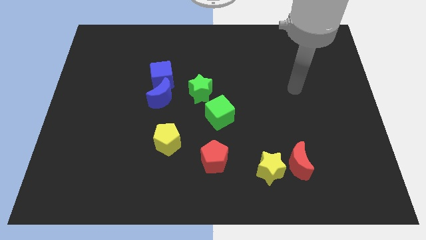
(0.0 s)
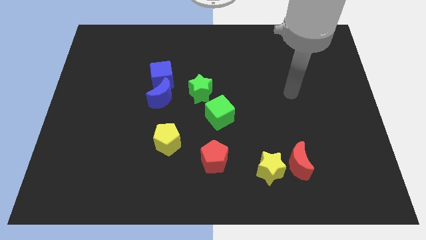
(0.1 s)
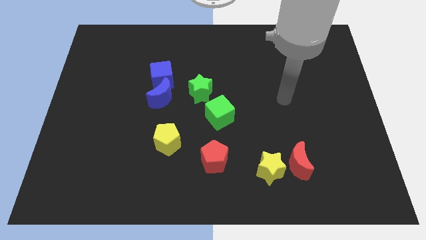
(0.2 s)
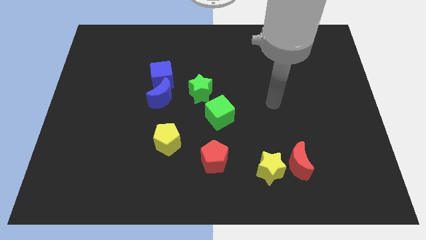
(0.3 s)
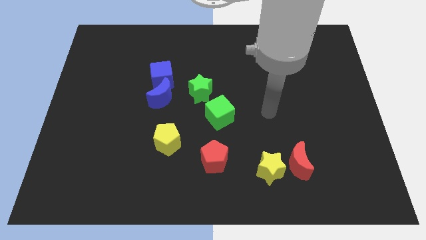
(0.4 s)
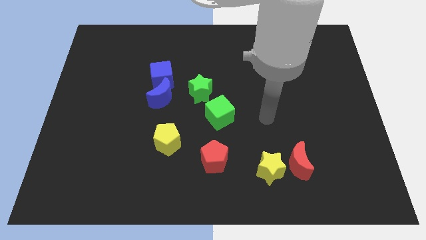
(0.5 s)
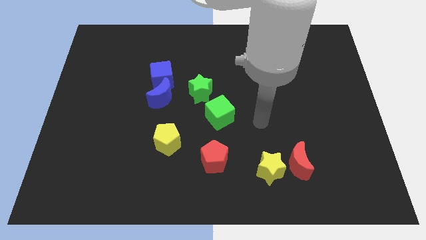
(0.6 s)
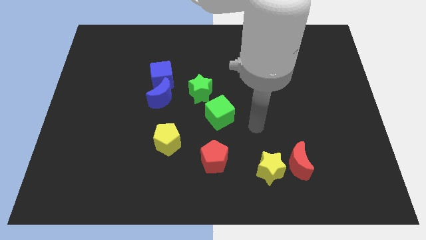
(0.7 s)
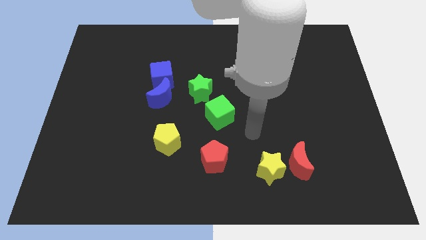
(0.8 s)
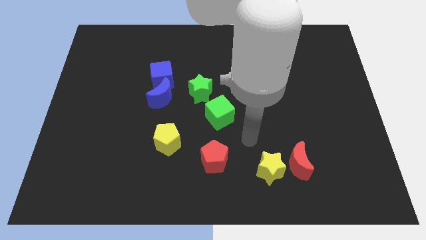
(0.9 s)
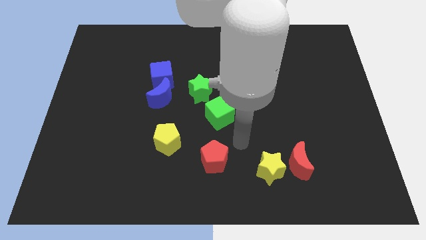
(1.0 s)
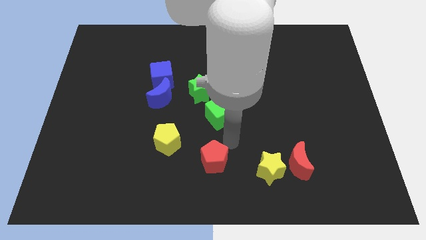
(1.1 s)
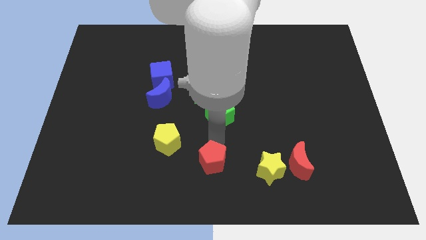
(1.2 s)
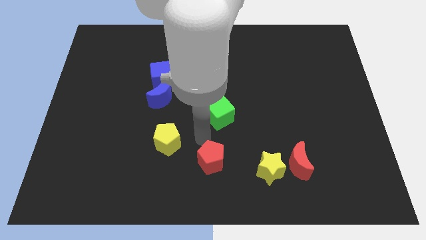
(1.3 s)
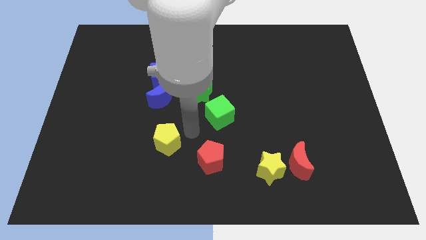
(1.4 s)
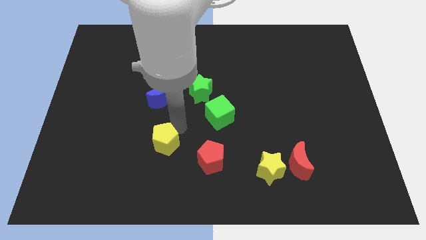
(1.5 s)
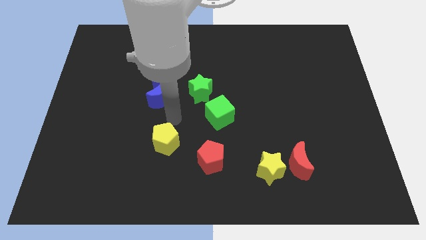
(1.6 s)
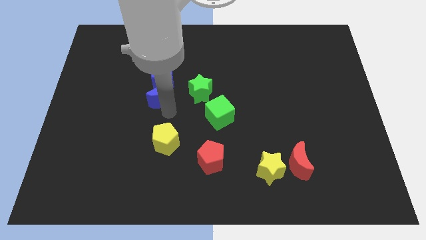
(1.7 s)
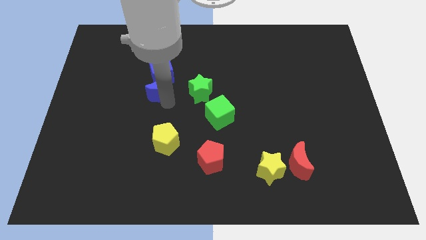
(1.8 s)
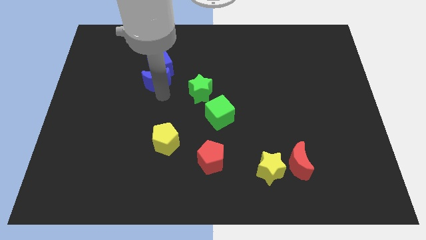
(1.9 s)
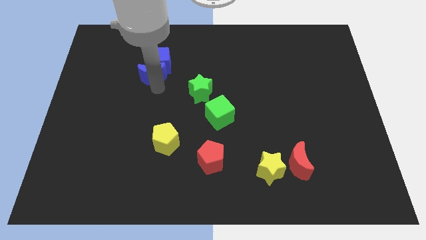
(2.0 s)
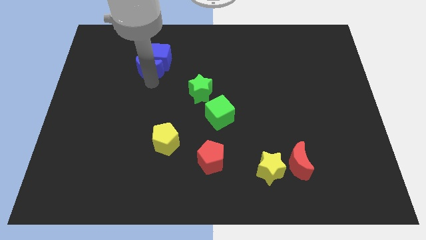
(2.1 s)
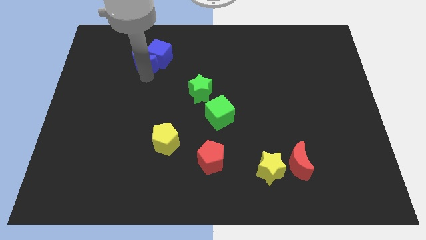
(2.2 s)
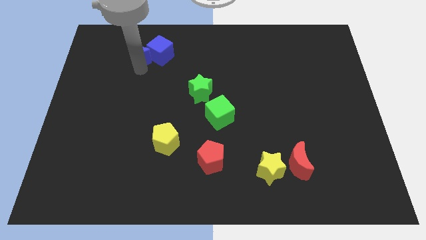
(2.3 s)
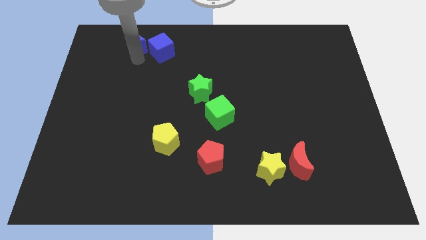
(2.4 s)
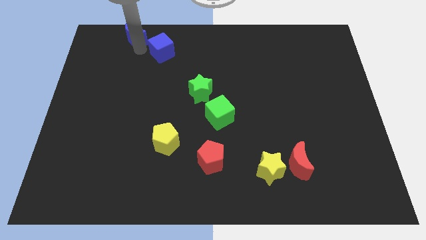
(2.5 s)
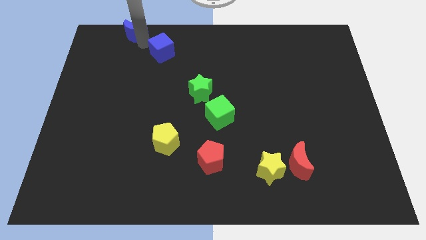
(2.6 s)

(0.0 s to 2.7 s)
move the blue cube away from the blue moon

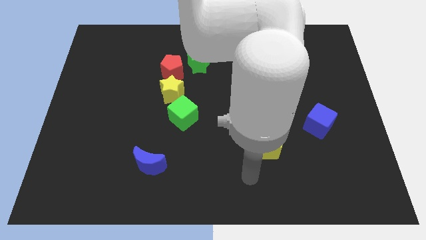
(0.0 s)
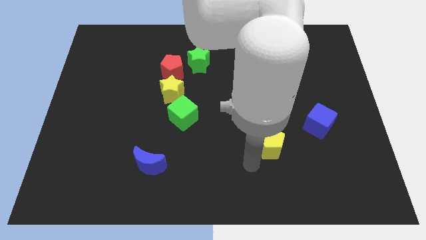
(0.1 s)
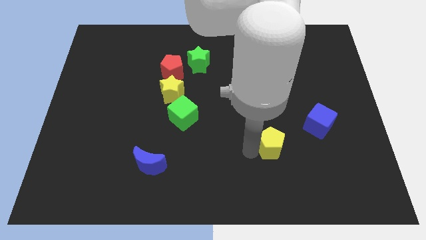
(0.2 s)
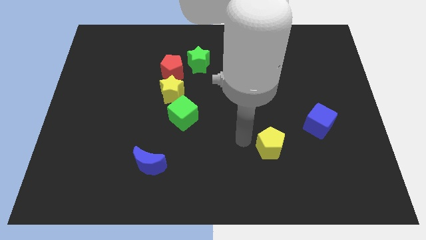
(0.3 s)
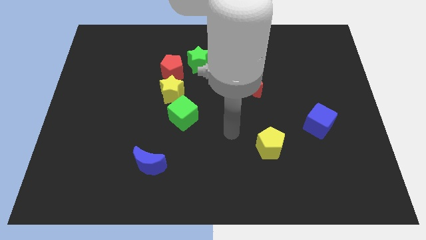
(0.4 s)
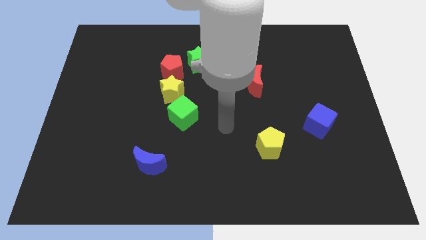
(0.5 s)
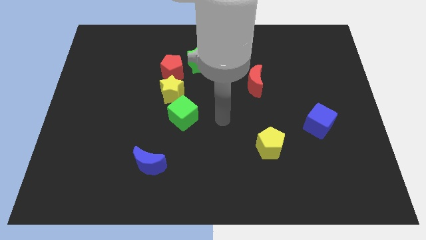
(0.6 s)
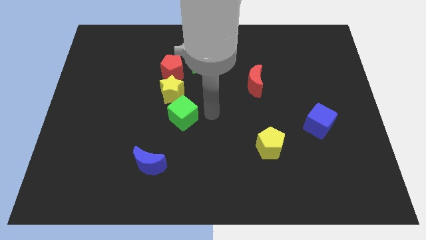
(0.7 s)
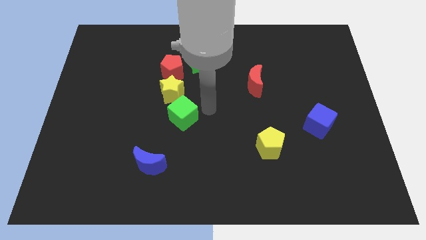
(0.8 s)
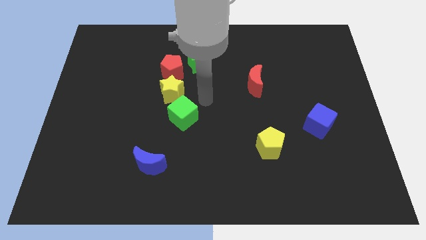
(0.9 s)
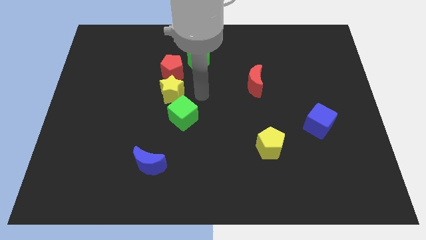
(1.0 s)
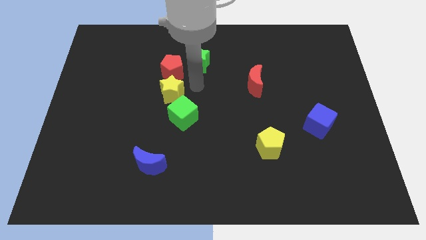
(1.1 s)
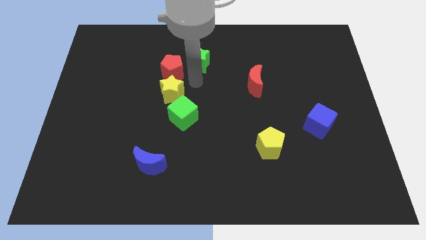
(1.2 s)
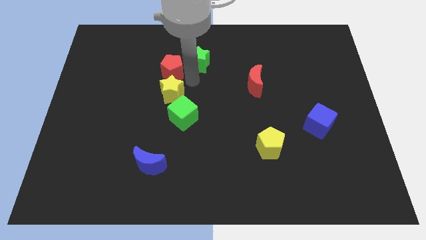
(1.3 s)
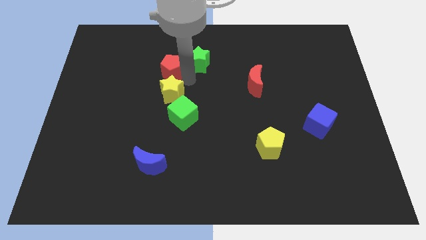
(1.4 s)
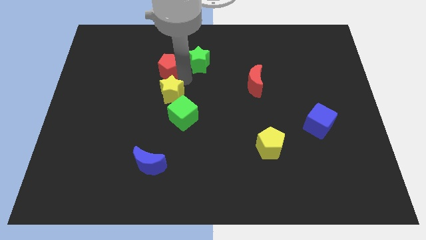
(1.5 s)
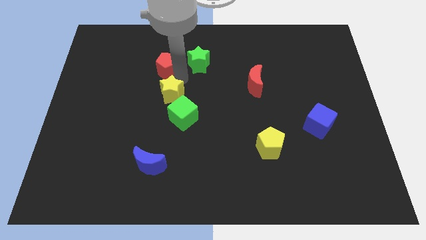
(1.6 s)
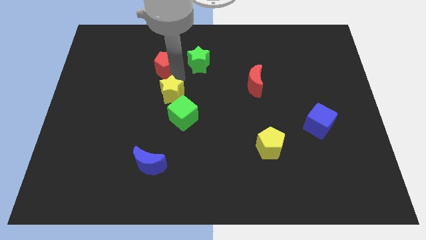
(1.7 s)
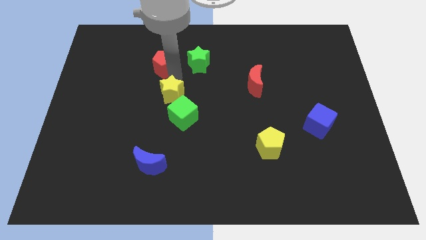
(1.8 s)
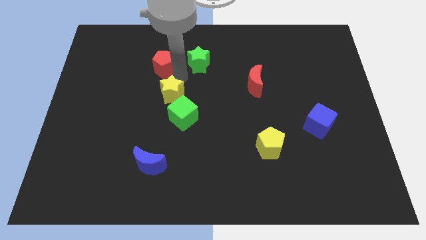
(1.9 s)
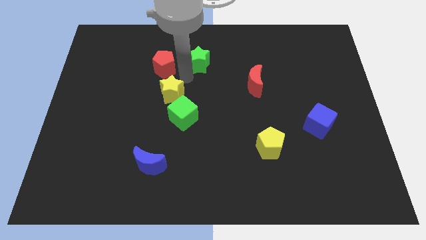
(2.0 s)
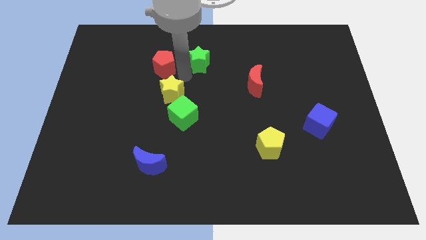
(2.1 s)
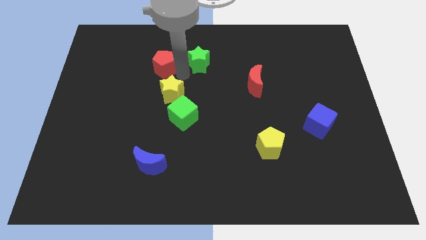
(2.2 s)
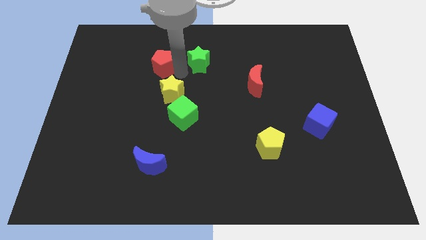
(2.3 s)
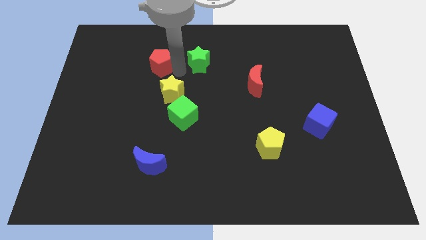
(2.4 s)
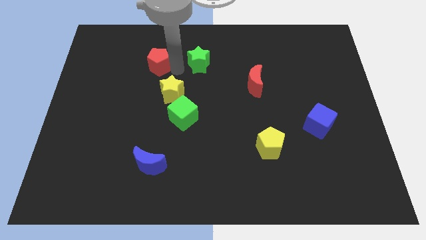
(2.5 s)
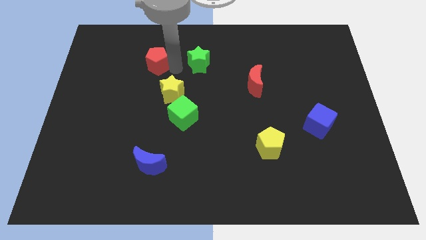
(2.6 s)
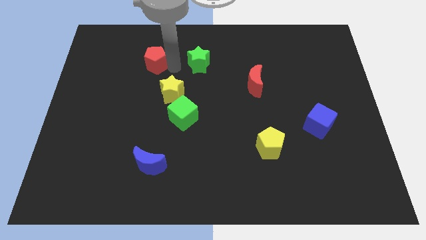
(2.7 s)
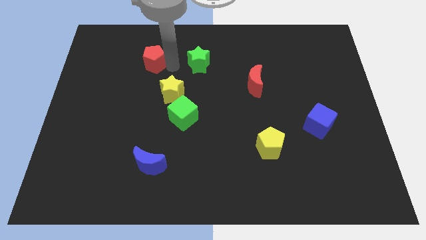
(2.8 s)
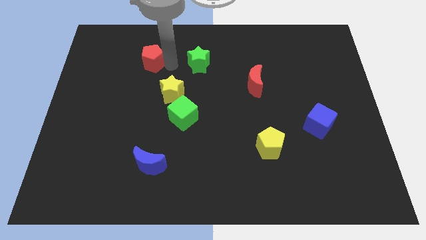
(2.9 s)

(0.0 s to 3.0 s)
move the red pentagon away from the yellow star and green star

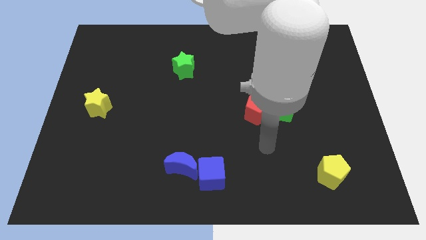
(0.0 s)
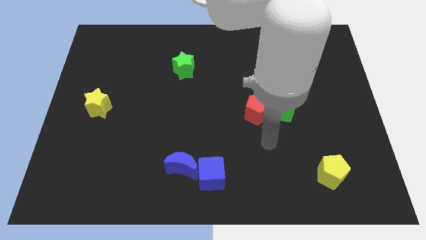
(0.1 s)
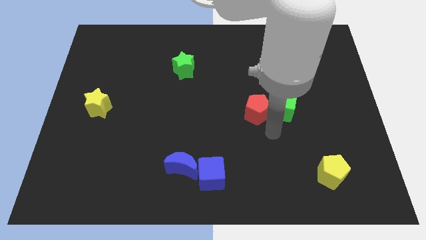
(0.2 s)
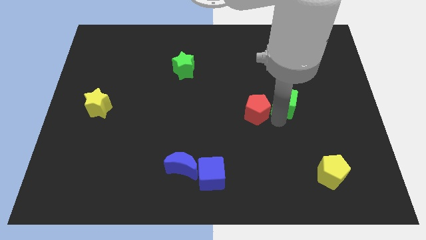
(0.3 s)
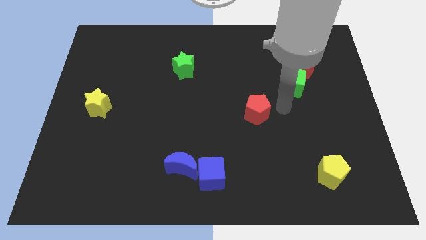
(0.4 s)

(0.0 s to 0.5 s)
move the red pentagon away from the green cube

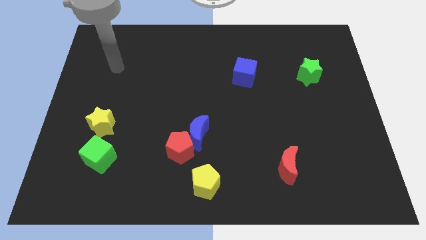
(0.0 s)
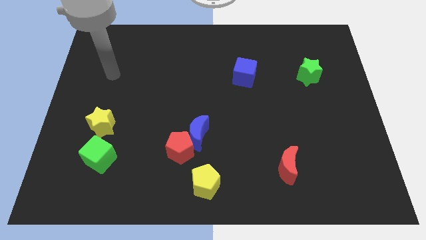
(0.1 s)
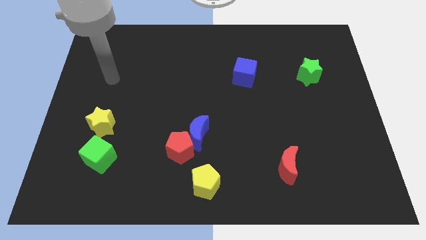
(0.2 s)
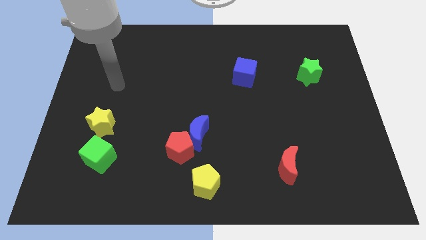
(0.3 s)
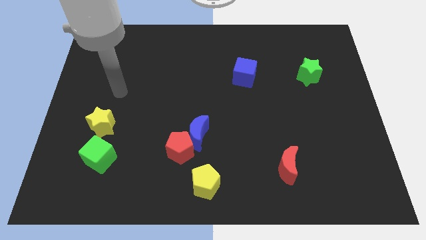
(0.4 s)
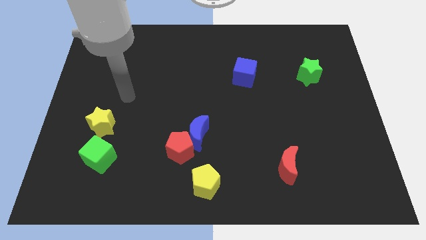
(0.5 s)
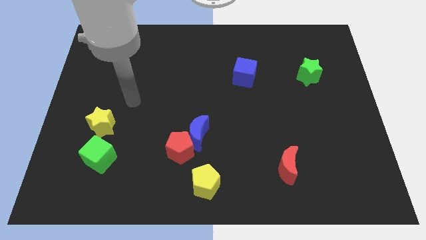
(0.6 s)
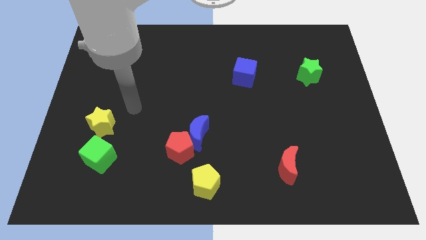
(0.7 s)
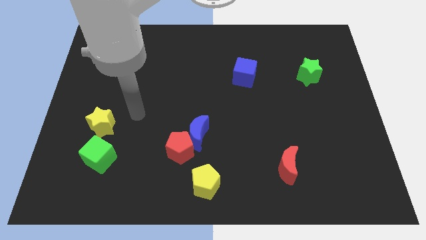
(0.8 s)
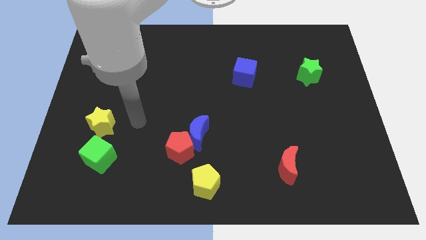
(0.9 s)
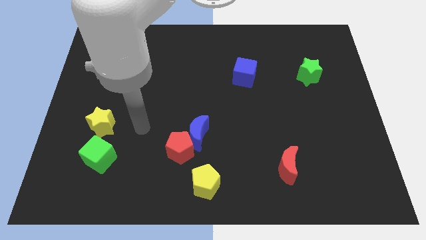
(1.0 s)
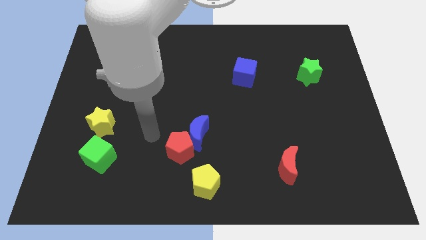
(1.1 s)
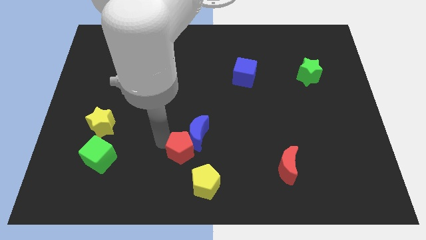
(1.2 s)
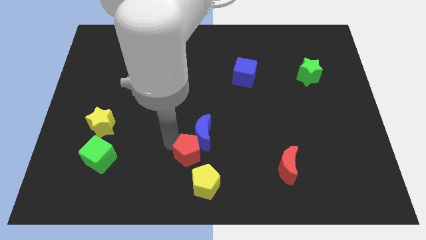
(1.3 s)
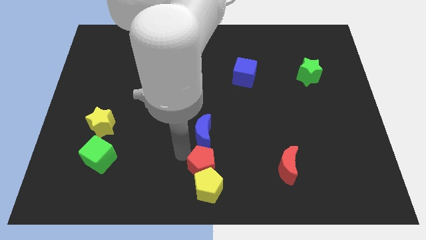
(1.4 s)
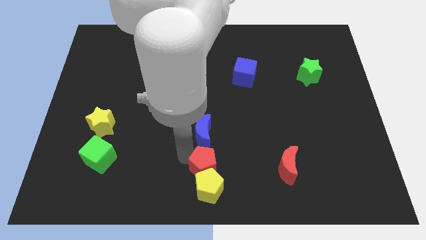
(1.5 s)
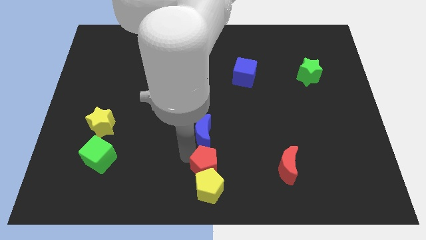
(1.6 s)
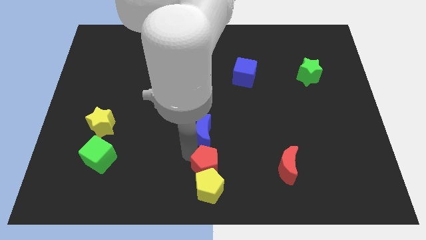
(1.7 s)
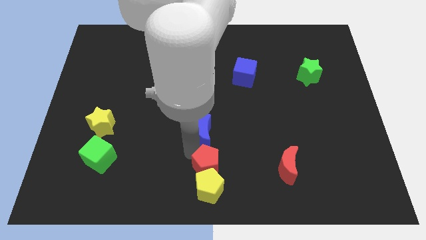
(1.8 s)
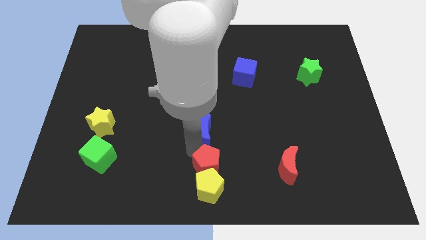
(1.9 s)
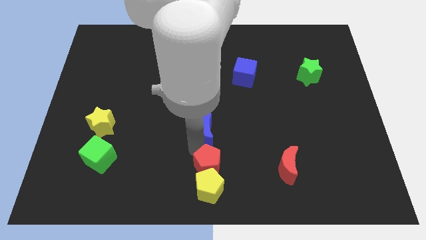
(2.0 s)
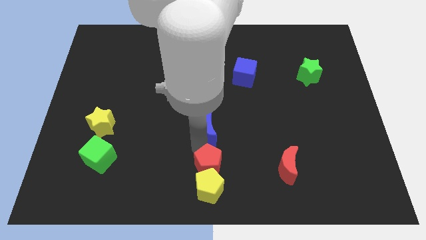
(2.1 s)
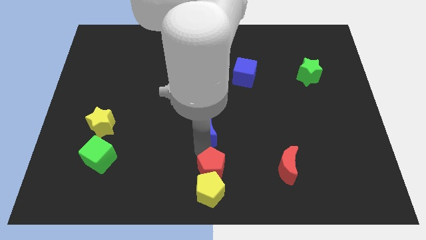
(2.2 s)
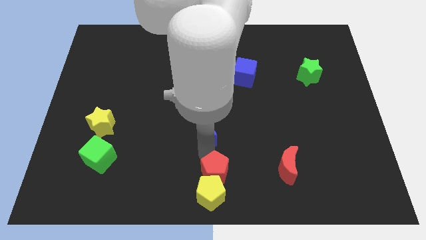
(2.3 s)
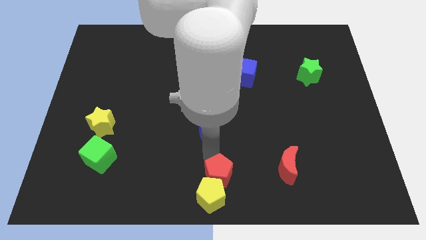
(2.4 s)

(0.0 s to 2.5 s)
move the blue moon away from the red pentagon

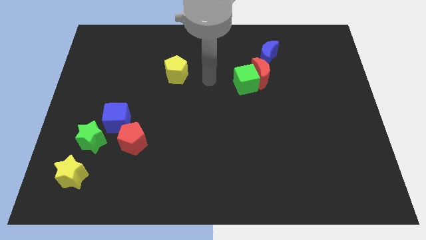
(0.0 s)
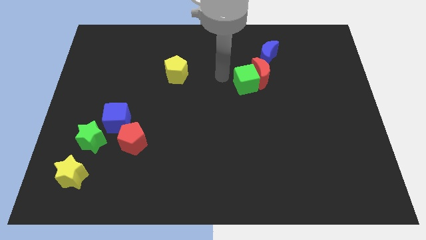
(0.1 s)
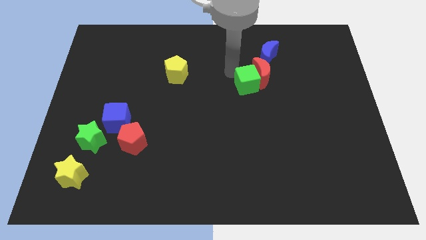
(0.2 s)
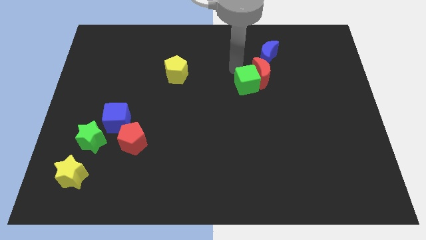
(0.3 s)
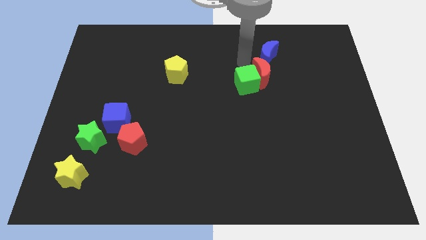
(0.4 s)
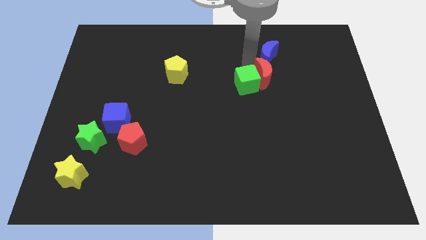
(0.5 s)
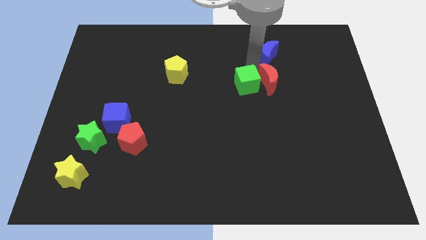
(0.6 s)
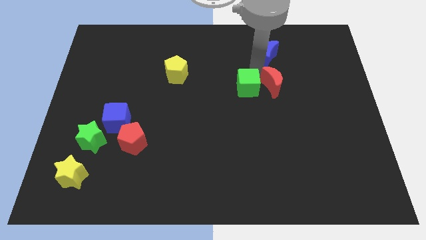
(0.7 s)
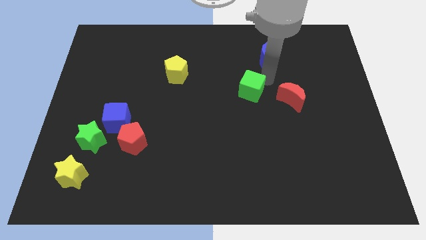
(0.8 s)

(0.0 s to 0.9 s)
move the green cube away from the red moon
